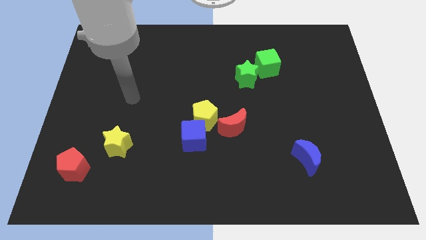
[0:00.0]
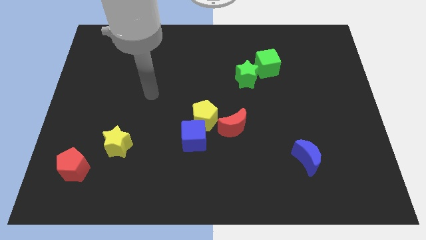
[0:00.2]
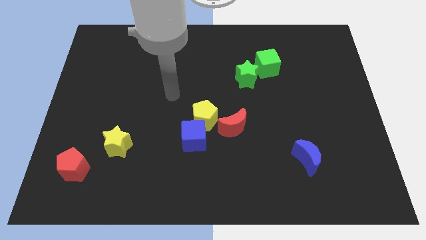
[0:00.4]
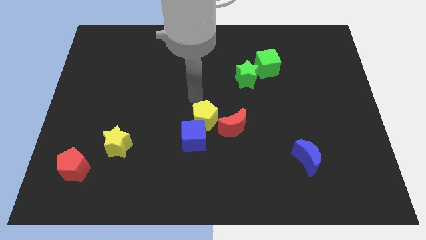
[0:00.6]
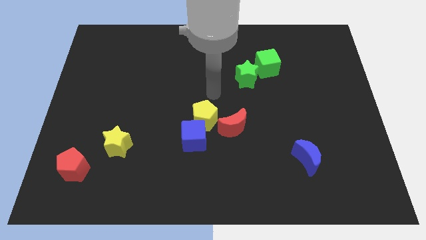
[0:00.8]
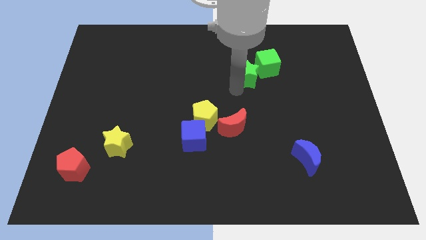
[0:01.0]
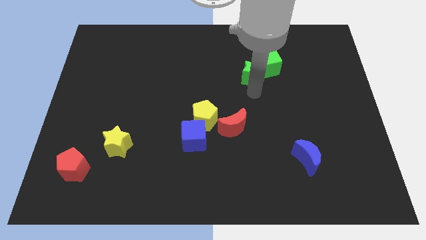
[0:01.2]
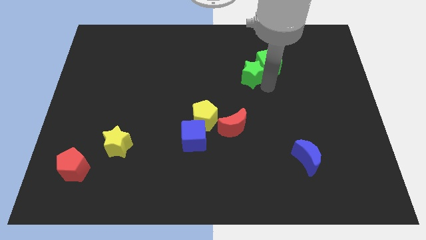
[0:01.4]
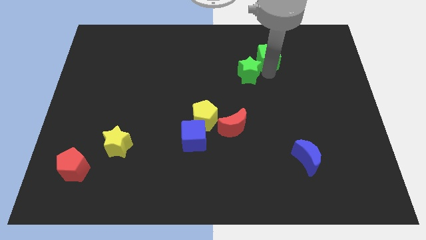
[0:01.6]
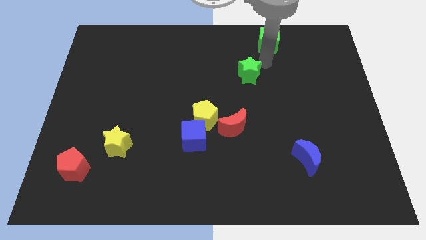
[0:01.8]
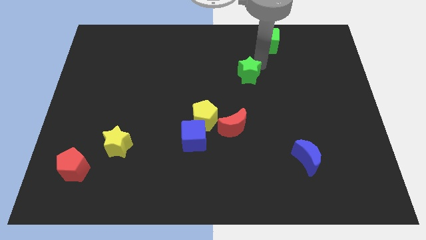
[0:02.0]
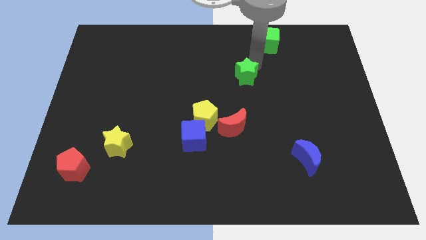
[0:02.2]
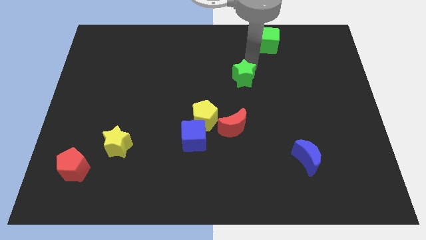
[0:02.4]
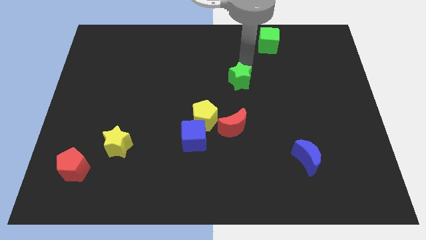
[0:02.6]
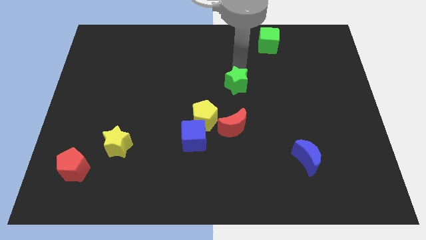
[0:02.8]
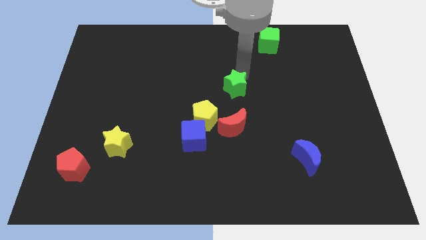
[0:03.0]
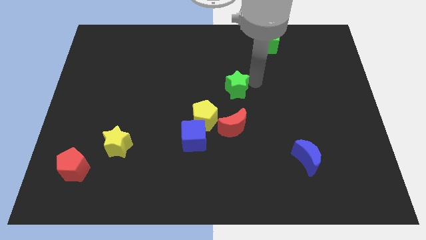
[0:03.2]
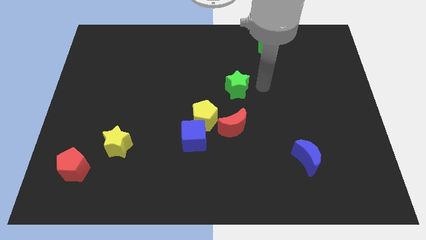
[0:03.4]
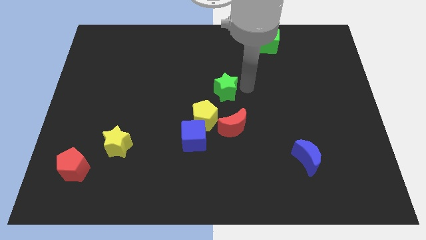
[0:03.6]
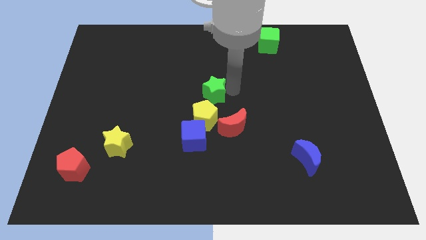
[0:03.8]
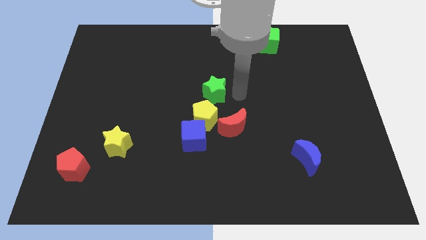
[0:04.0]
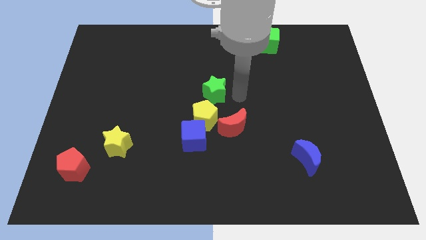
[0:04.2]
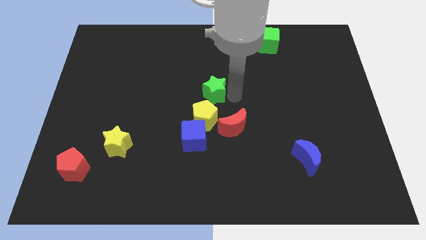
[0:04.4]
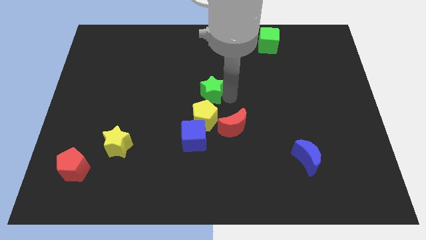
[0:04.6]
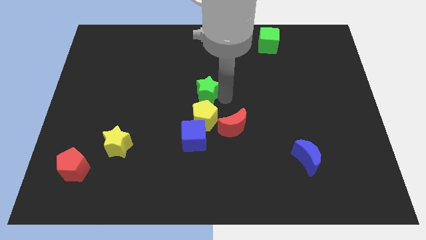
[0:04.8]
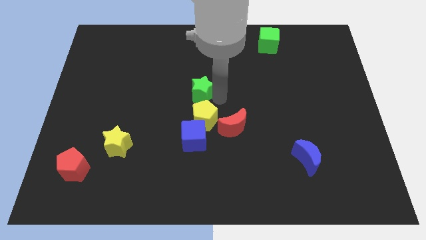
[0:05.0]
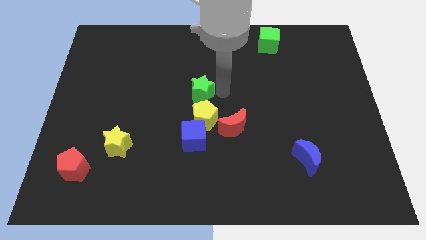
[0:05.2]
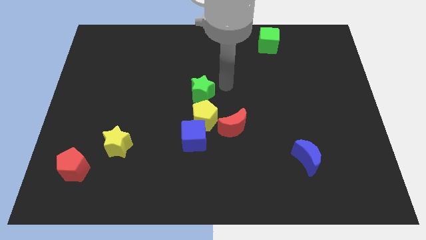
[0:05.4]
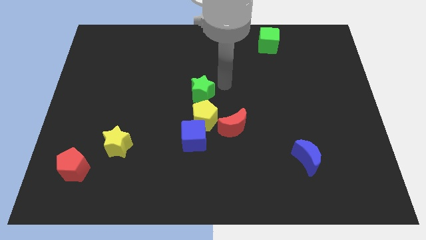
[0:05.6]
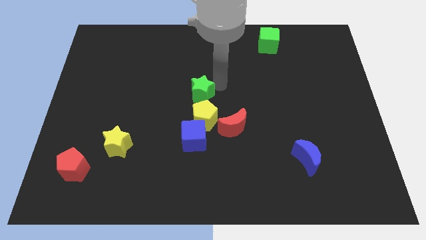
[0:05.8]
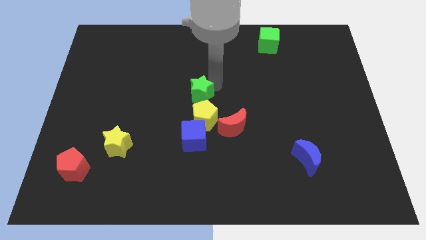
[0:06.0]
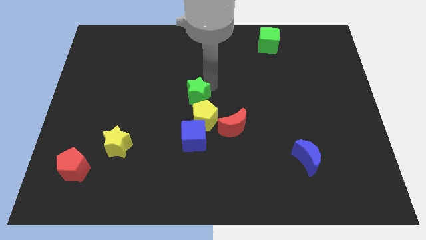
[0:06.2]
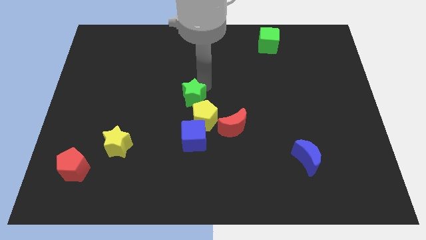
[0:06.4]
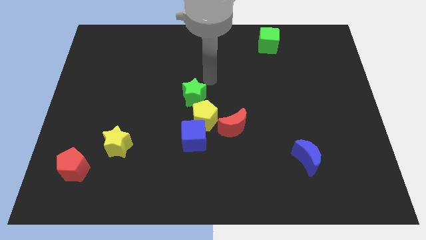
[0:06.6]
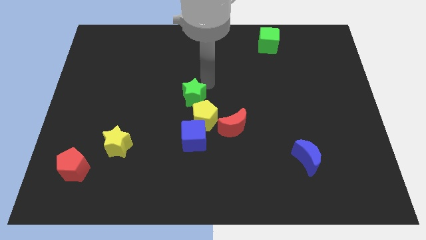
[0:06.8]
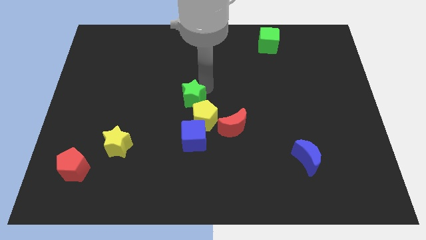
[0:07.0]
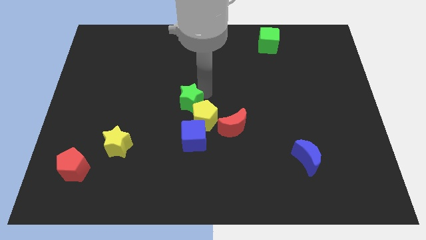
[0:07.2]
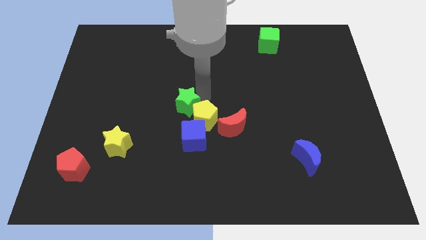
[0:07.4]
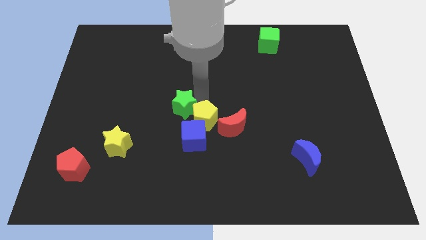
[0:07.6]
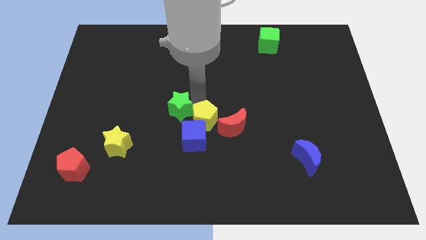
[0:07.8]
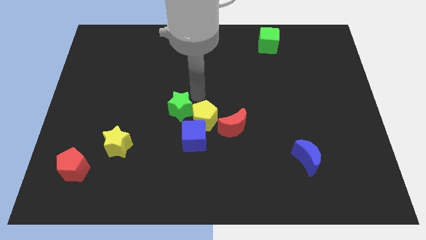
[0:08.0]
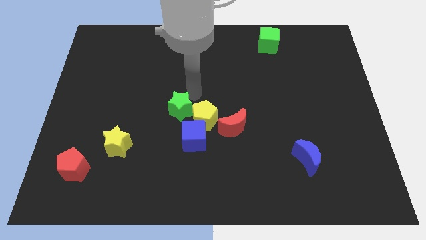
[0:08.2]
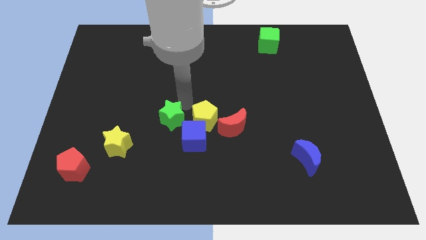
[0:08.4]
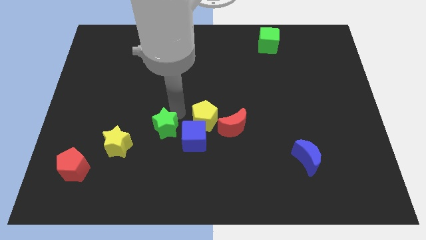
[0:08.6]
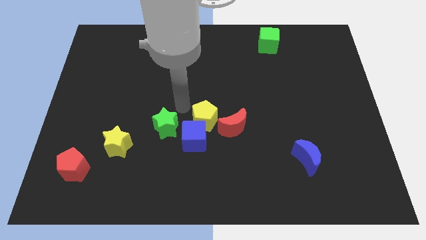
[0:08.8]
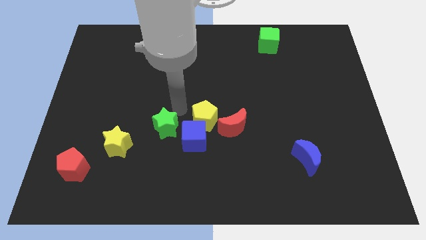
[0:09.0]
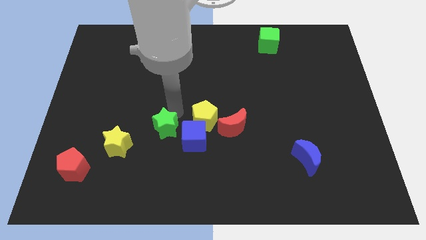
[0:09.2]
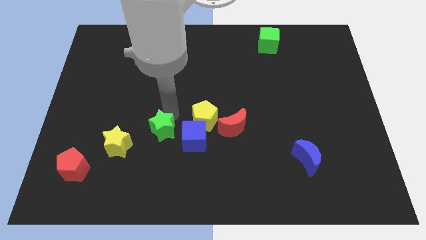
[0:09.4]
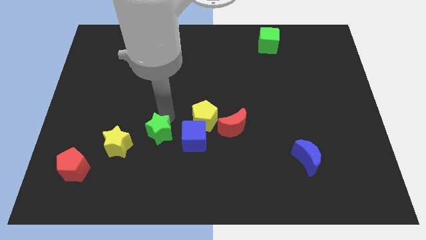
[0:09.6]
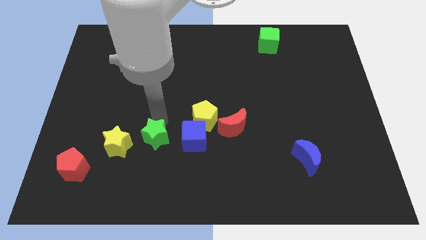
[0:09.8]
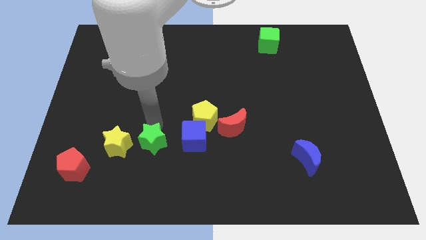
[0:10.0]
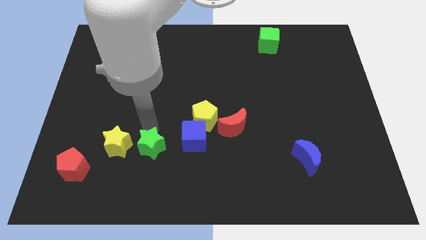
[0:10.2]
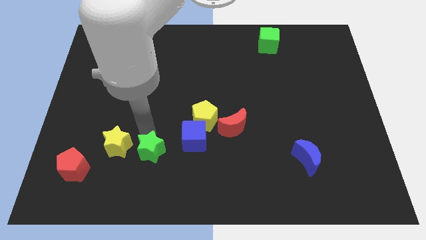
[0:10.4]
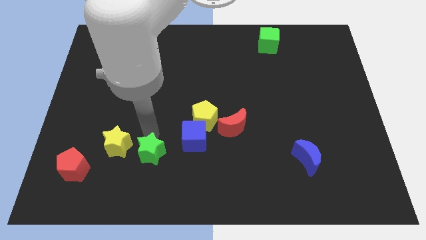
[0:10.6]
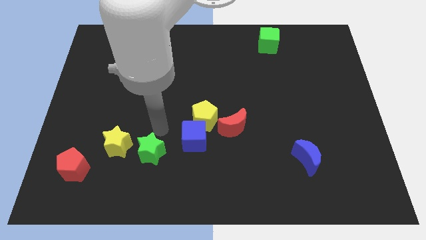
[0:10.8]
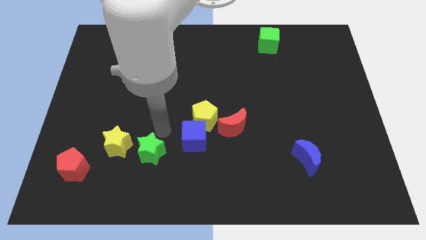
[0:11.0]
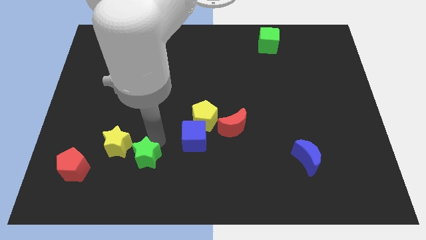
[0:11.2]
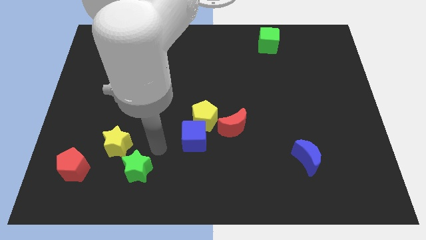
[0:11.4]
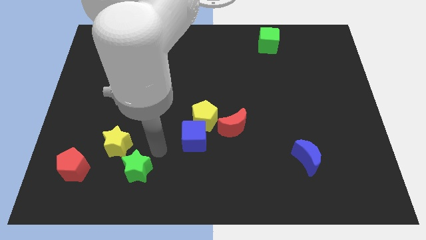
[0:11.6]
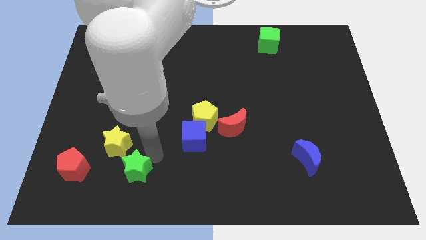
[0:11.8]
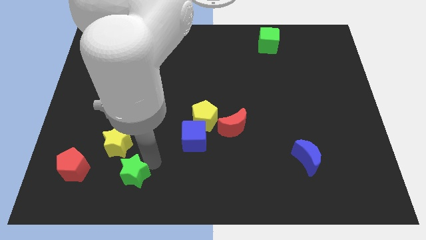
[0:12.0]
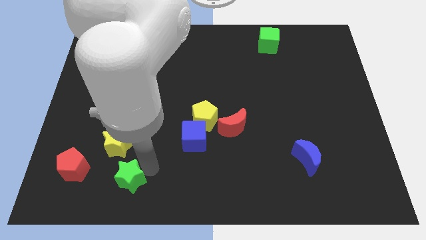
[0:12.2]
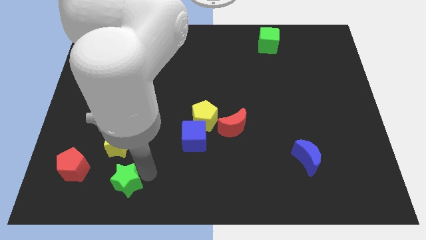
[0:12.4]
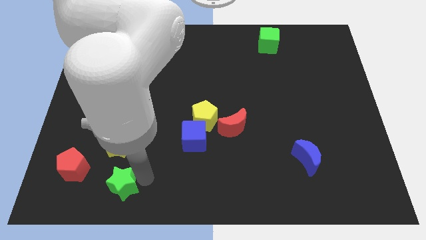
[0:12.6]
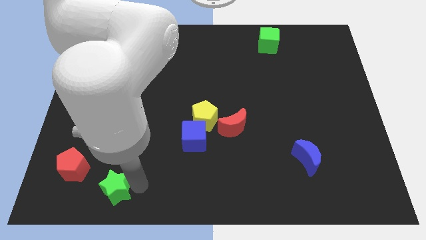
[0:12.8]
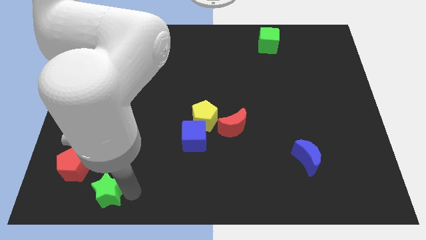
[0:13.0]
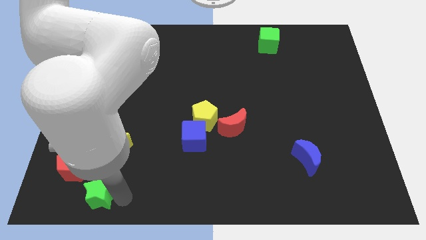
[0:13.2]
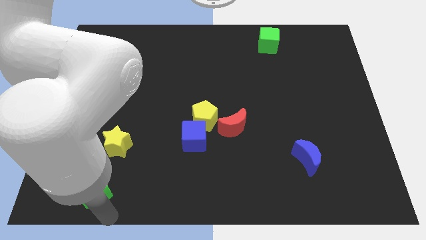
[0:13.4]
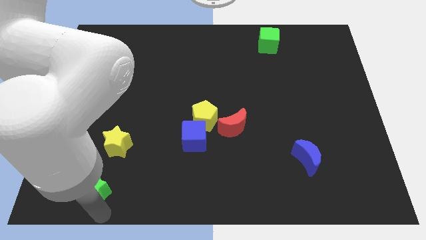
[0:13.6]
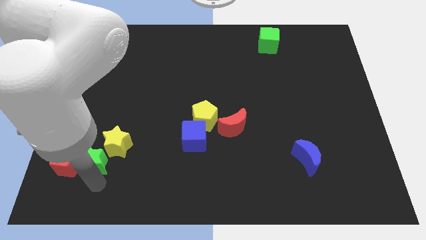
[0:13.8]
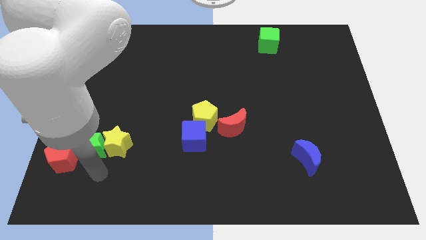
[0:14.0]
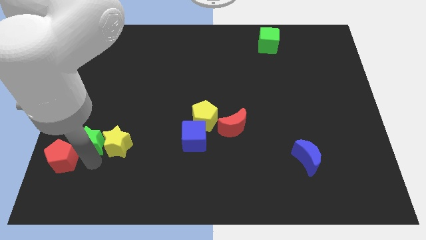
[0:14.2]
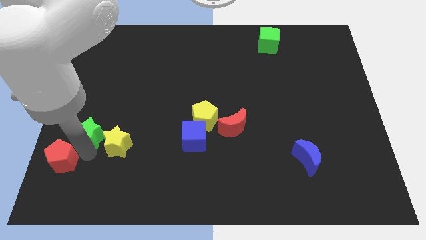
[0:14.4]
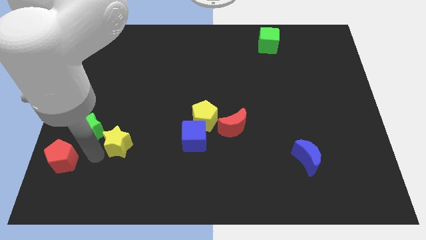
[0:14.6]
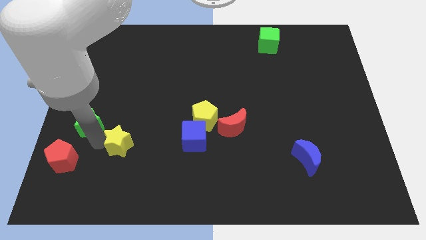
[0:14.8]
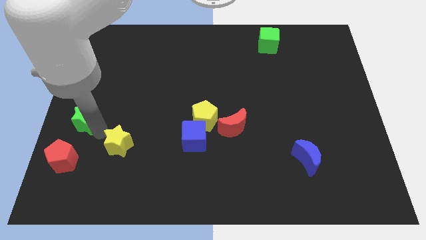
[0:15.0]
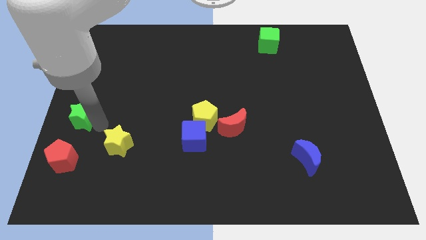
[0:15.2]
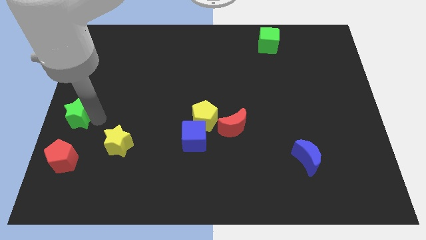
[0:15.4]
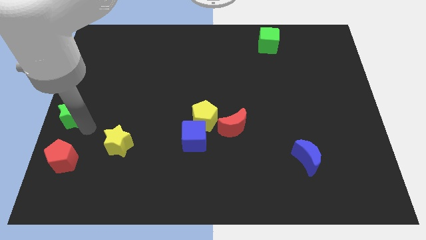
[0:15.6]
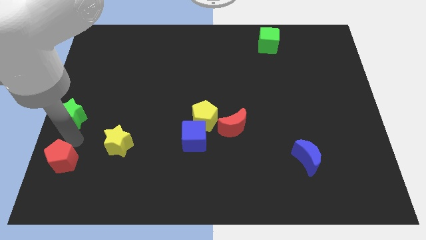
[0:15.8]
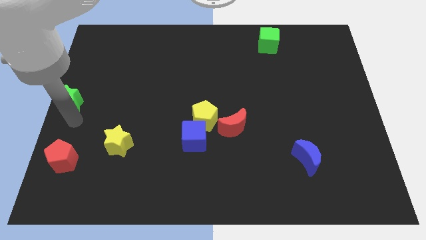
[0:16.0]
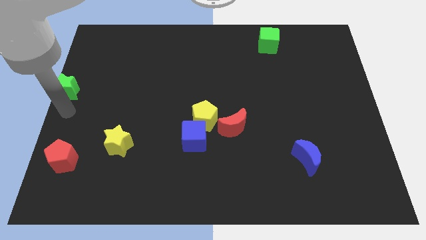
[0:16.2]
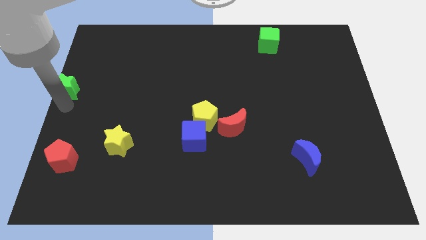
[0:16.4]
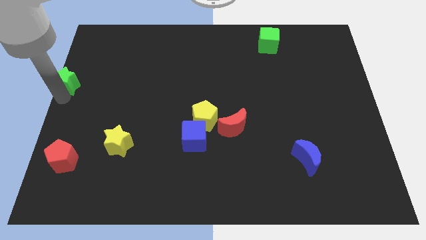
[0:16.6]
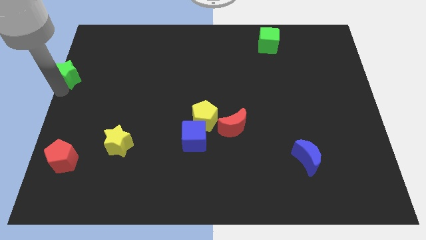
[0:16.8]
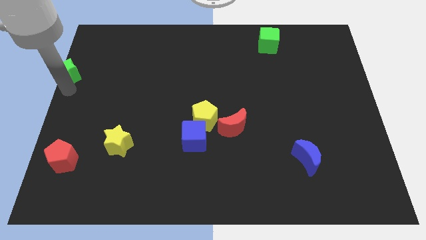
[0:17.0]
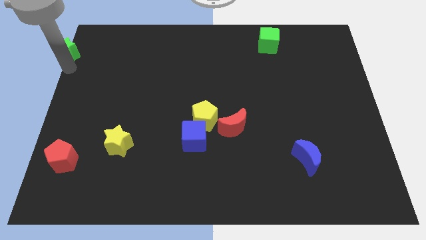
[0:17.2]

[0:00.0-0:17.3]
put the green star to the top left corner
